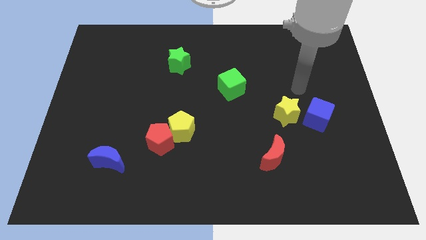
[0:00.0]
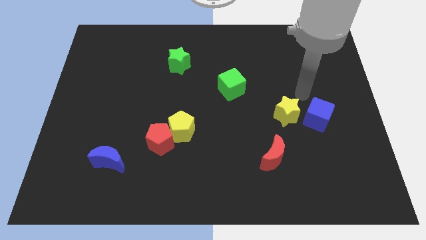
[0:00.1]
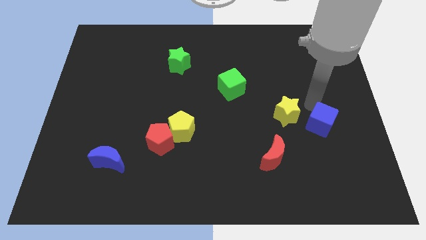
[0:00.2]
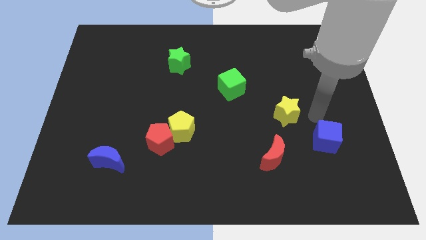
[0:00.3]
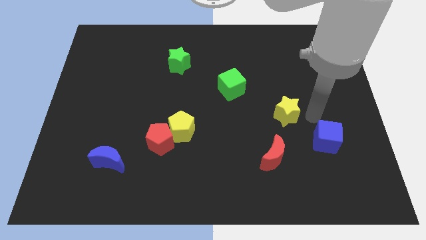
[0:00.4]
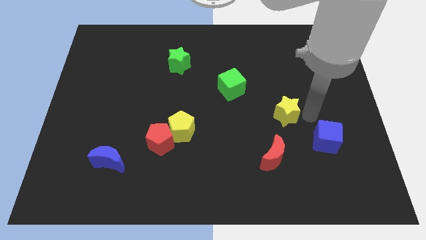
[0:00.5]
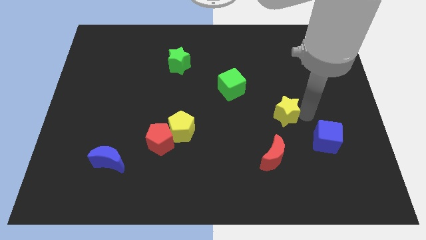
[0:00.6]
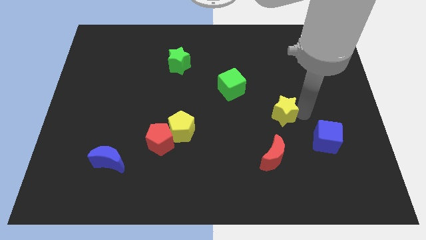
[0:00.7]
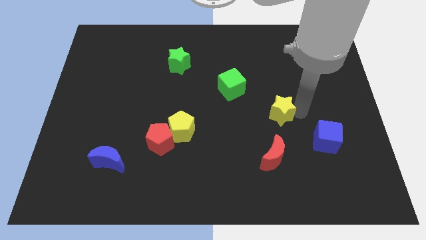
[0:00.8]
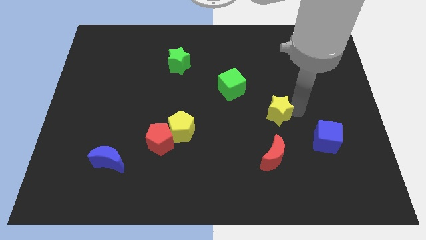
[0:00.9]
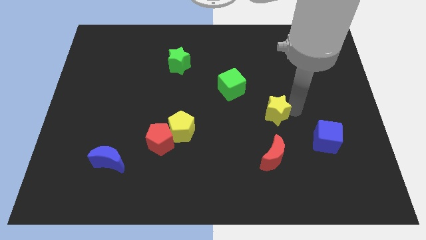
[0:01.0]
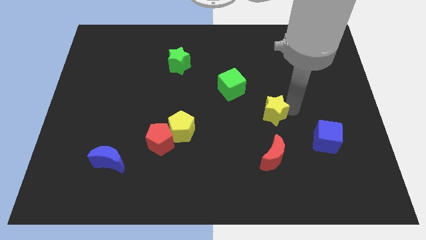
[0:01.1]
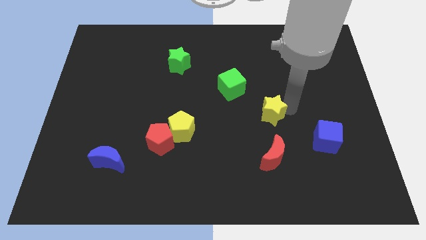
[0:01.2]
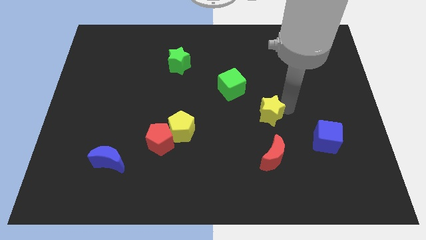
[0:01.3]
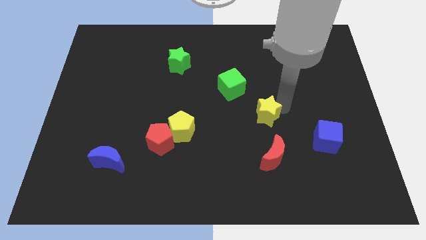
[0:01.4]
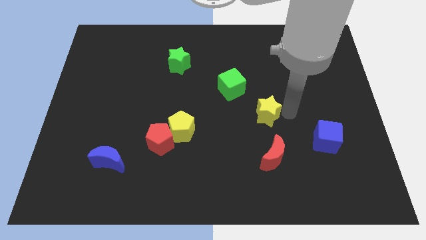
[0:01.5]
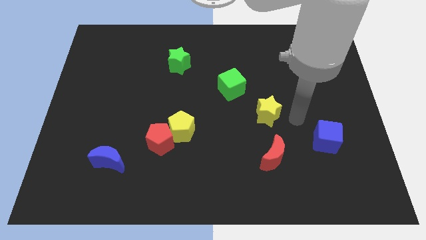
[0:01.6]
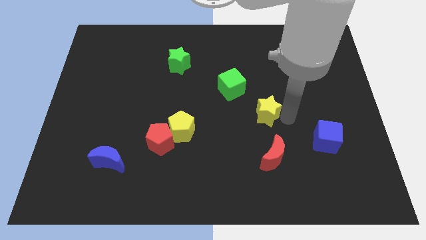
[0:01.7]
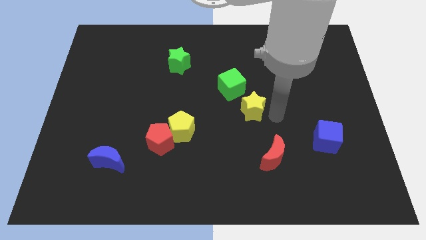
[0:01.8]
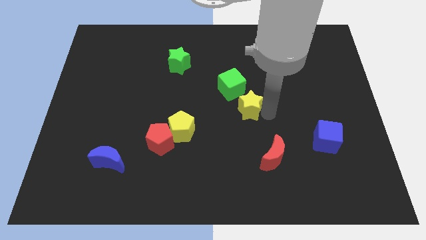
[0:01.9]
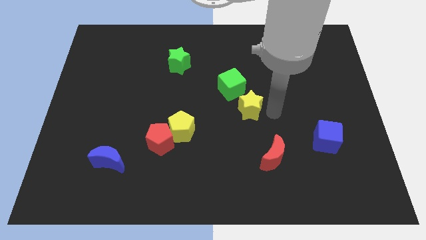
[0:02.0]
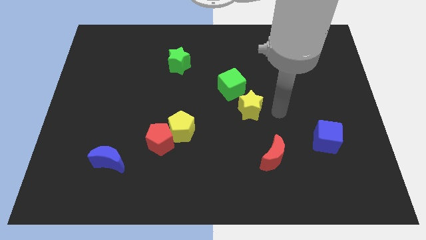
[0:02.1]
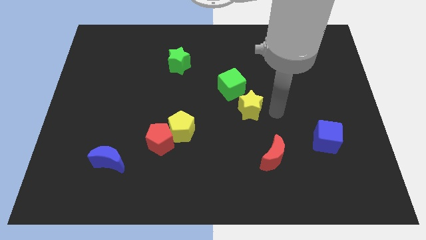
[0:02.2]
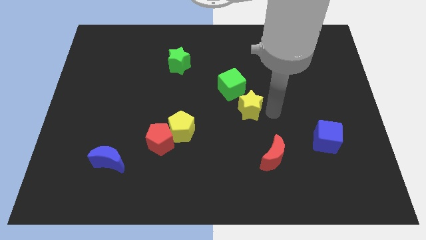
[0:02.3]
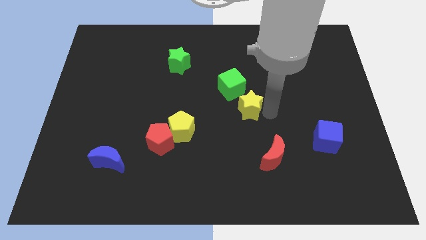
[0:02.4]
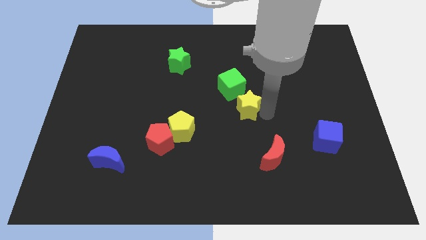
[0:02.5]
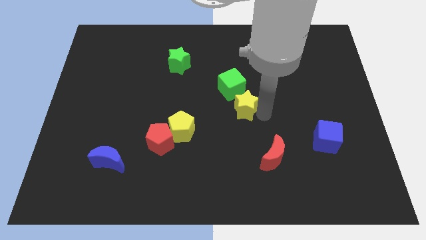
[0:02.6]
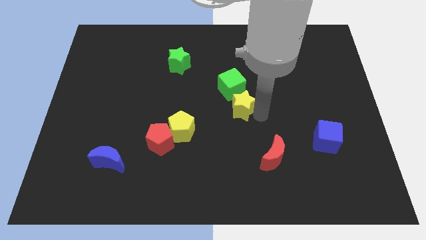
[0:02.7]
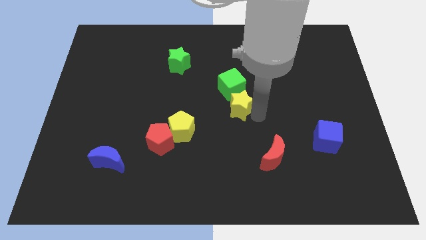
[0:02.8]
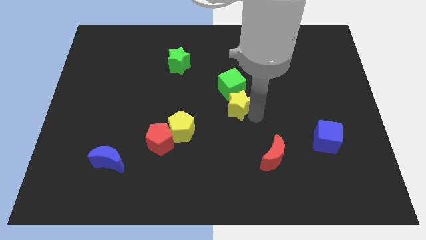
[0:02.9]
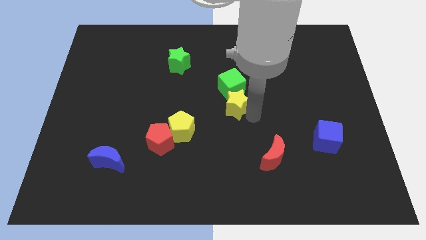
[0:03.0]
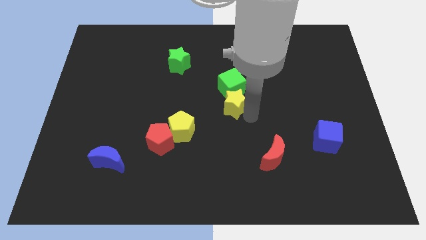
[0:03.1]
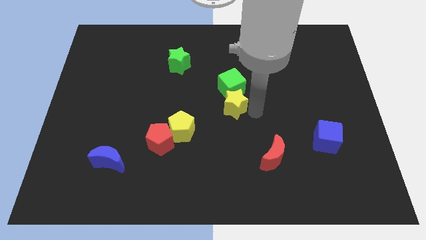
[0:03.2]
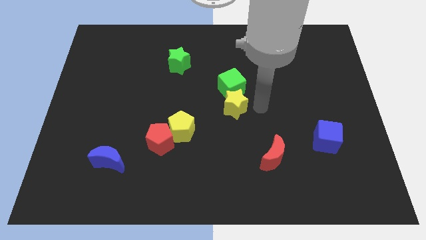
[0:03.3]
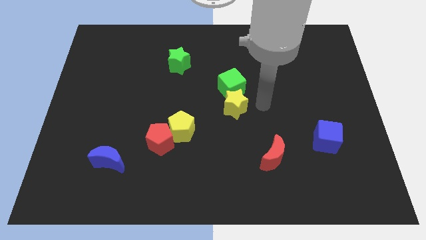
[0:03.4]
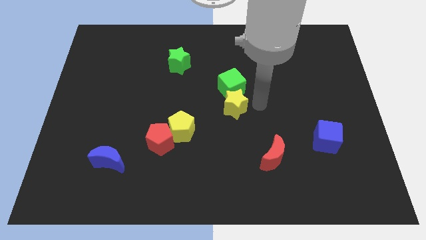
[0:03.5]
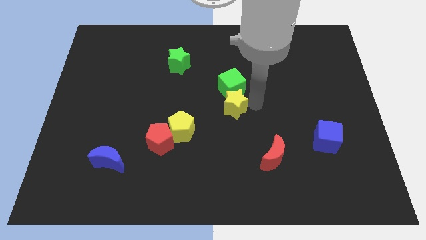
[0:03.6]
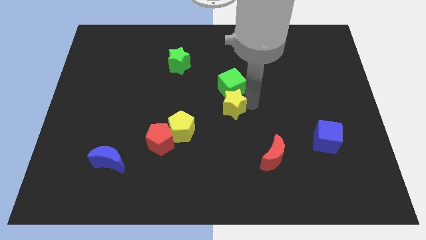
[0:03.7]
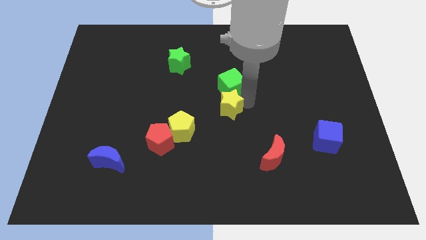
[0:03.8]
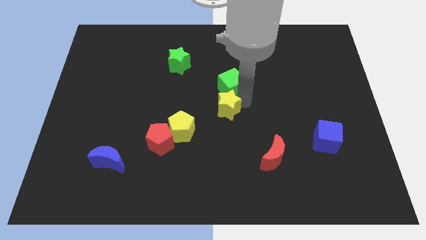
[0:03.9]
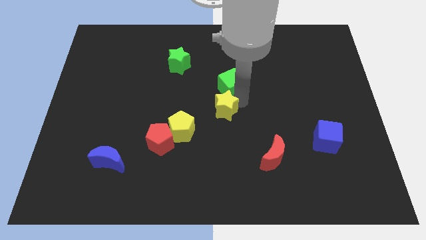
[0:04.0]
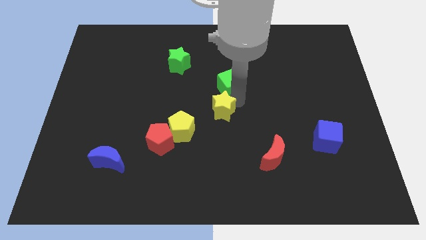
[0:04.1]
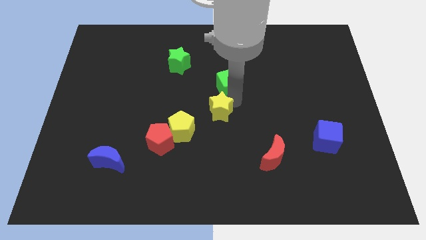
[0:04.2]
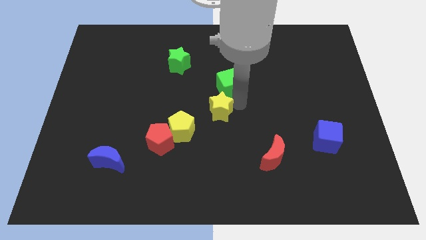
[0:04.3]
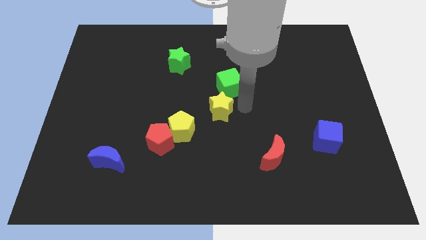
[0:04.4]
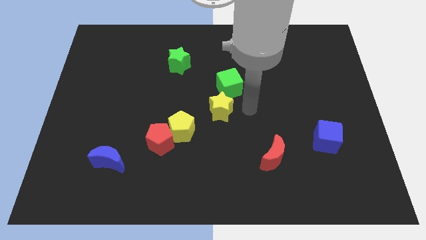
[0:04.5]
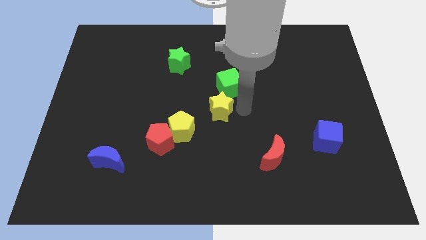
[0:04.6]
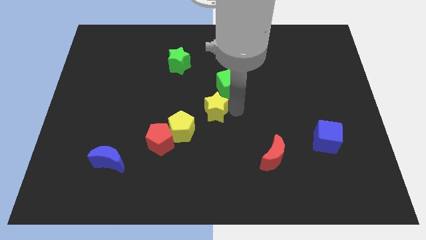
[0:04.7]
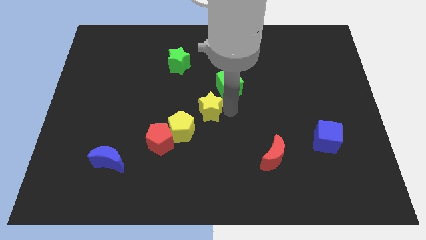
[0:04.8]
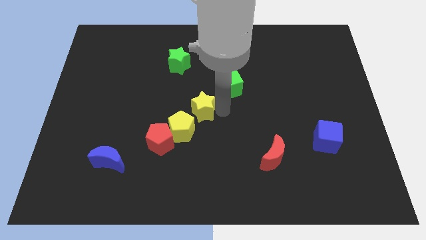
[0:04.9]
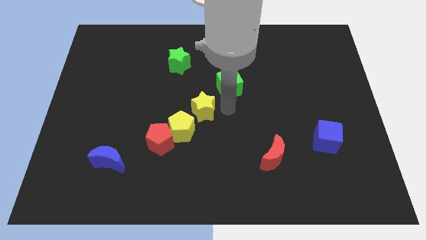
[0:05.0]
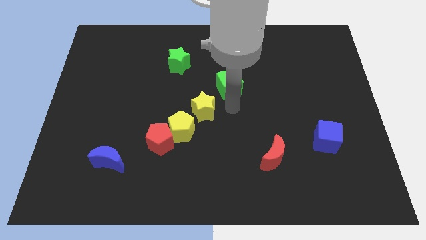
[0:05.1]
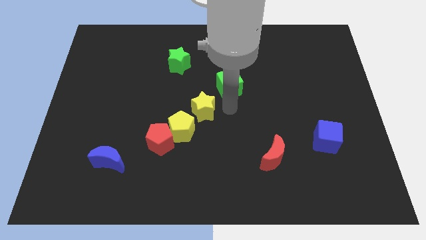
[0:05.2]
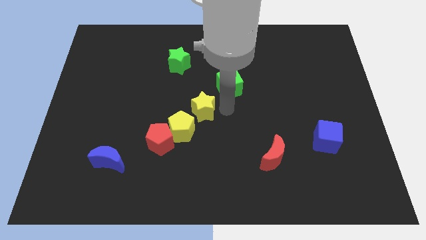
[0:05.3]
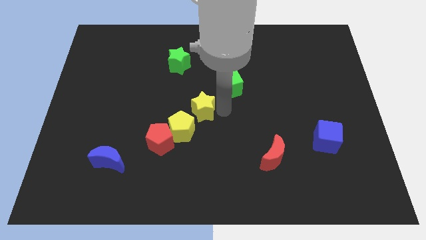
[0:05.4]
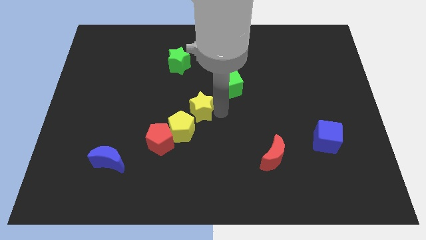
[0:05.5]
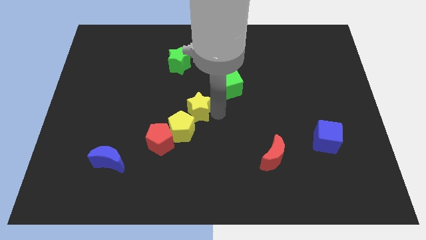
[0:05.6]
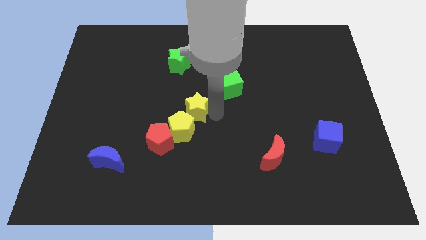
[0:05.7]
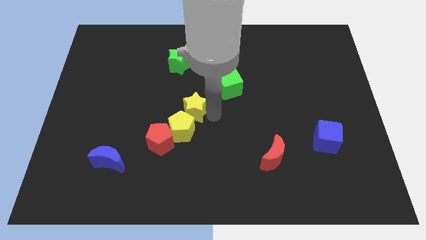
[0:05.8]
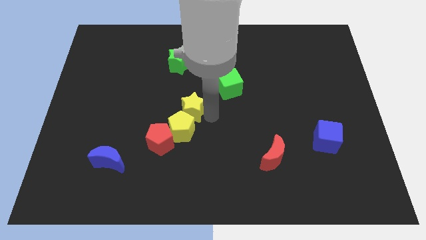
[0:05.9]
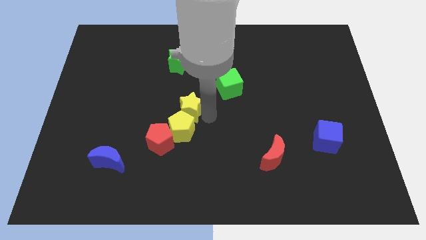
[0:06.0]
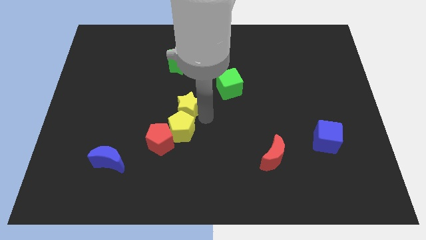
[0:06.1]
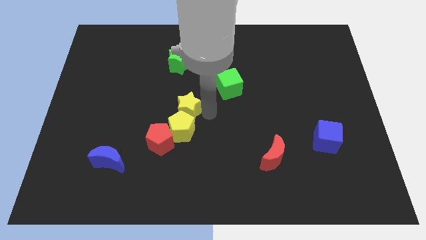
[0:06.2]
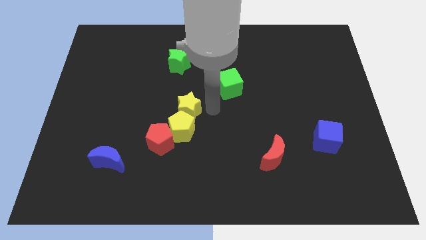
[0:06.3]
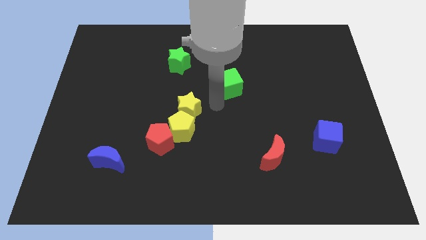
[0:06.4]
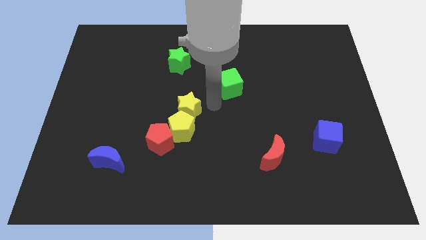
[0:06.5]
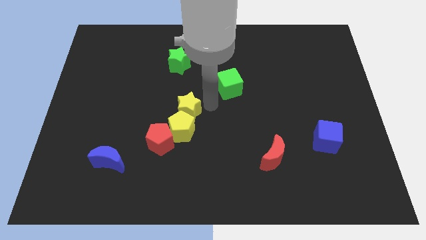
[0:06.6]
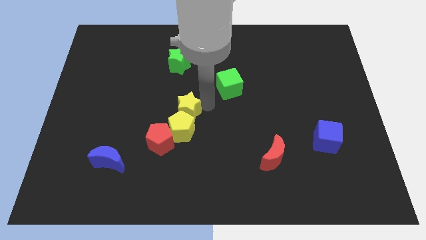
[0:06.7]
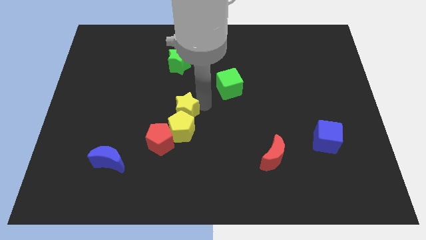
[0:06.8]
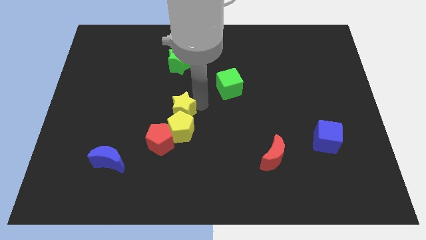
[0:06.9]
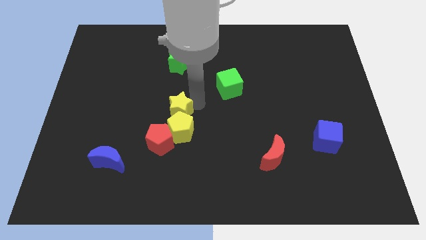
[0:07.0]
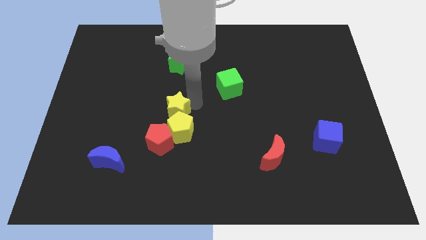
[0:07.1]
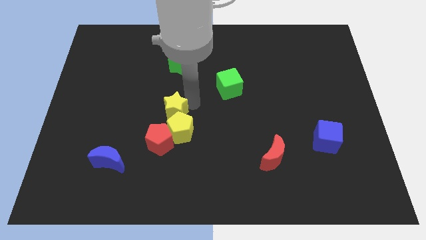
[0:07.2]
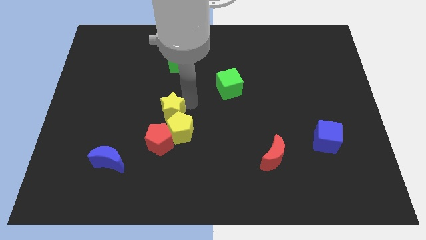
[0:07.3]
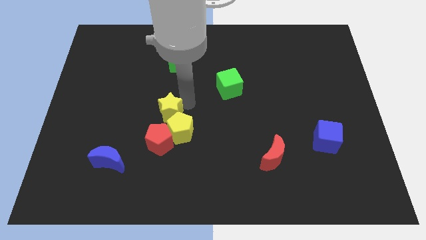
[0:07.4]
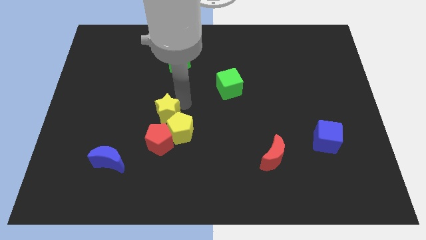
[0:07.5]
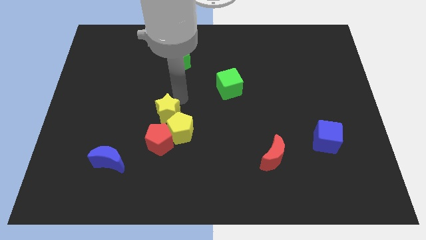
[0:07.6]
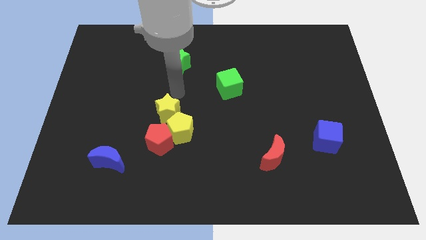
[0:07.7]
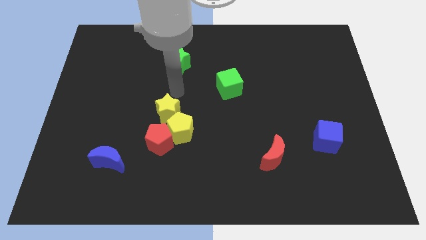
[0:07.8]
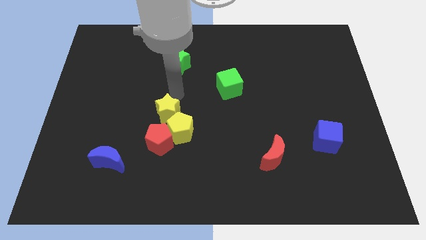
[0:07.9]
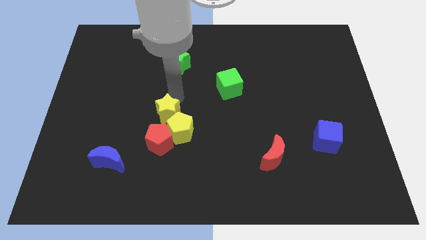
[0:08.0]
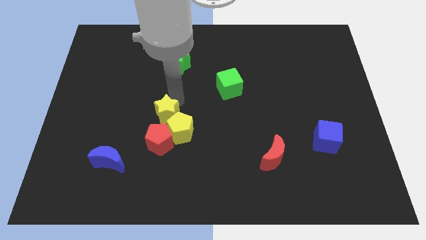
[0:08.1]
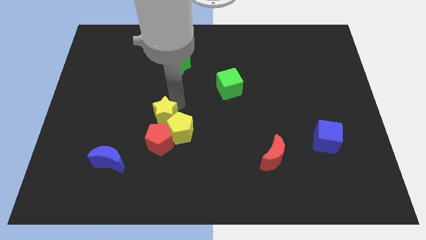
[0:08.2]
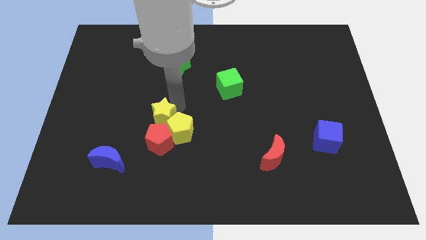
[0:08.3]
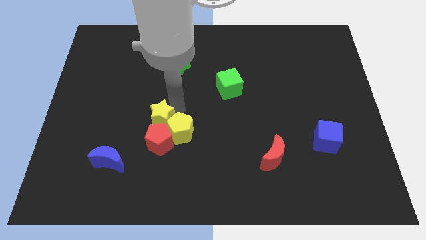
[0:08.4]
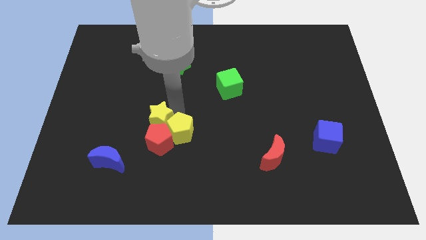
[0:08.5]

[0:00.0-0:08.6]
move the yellow star close to the red pentagon
